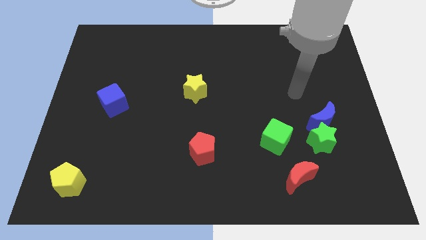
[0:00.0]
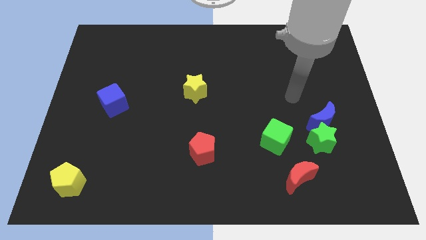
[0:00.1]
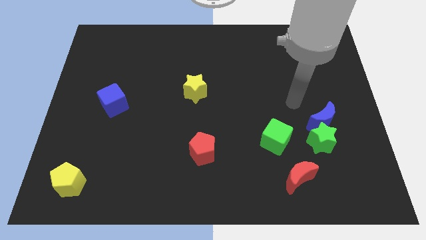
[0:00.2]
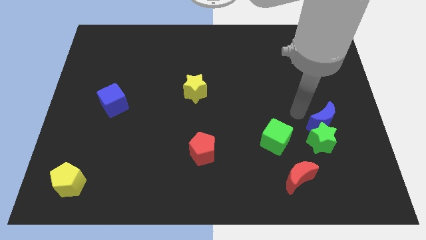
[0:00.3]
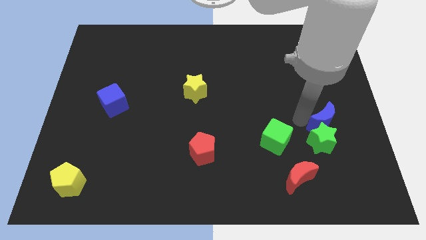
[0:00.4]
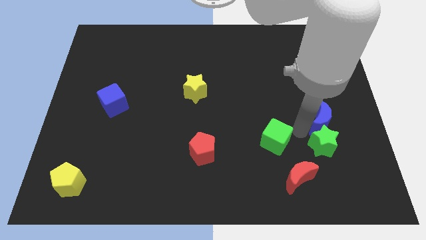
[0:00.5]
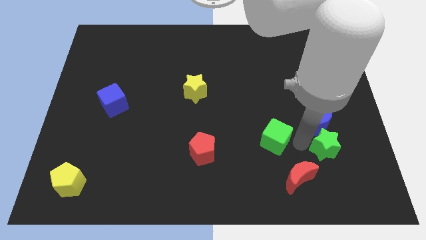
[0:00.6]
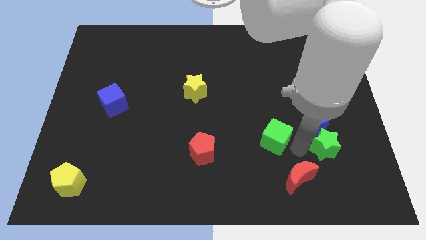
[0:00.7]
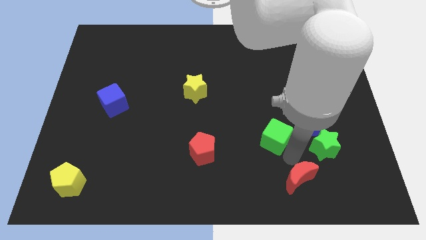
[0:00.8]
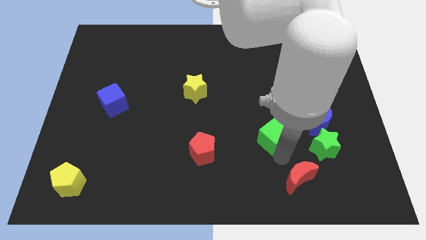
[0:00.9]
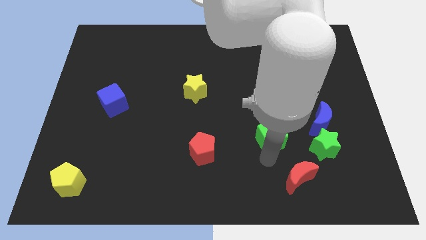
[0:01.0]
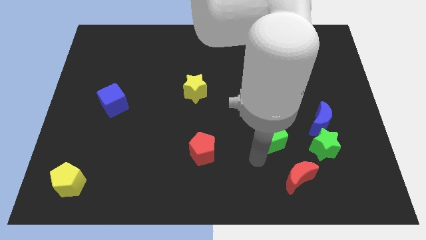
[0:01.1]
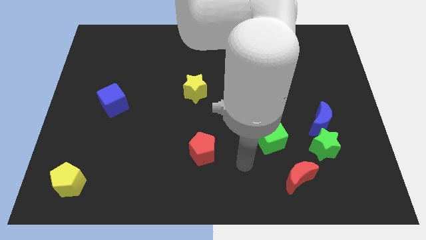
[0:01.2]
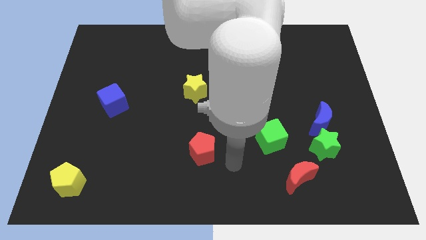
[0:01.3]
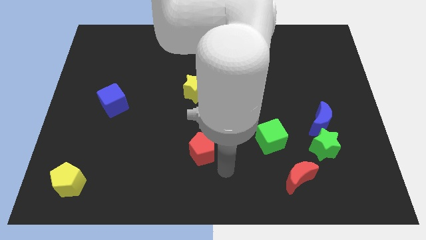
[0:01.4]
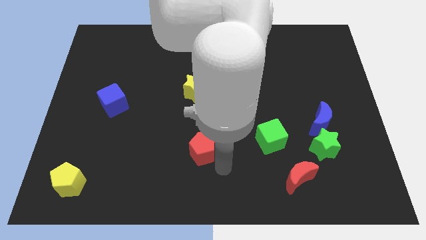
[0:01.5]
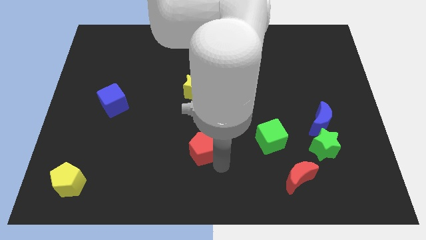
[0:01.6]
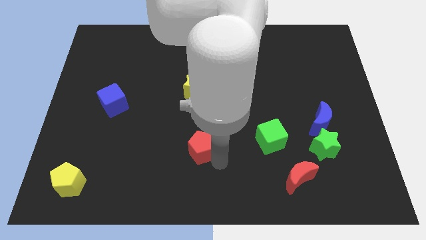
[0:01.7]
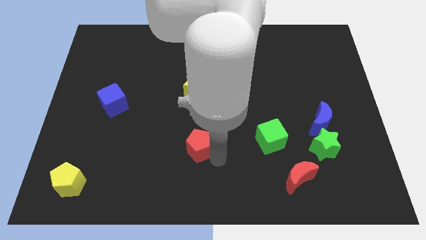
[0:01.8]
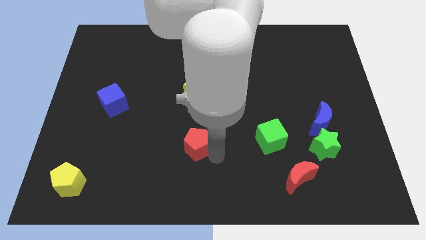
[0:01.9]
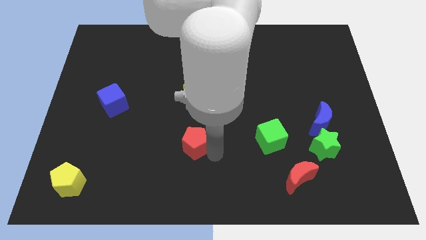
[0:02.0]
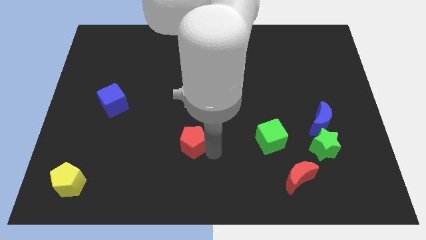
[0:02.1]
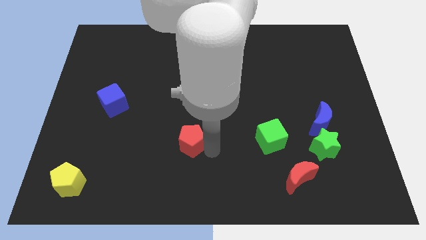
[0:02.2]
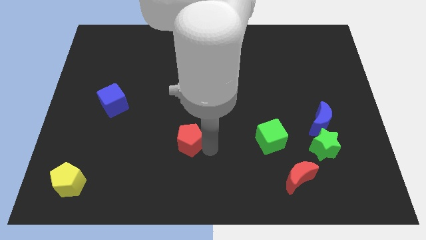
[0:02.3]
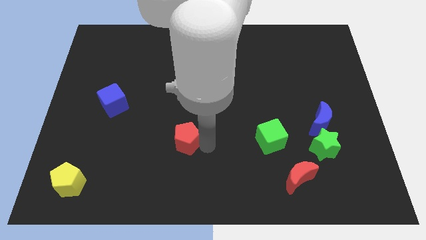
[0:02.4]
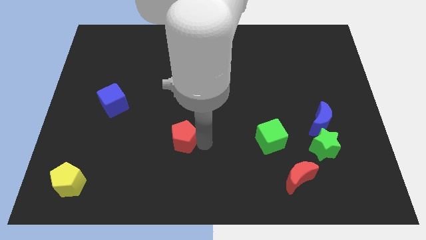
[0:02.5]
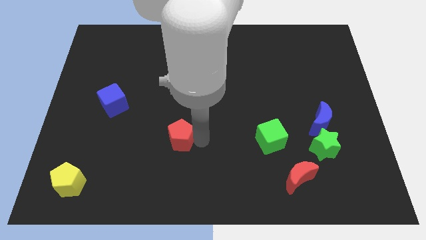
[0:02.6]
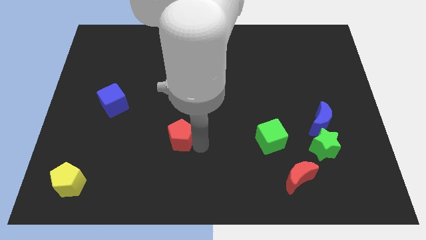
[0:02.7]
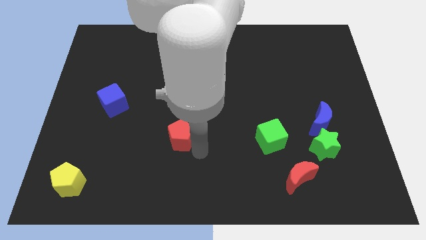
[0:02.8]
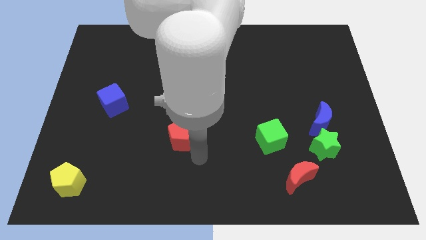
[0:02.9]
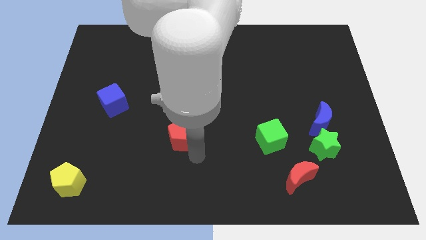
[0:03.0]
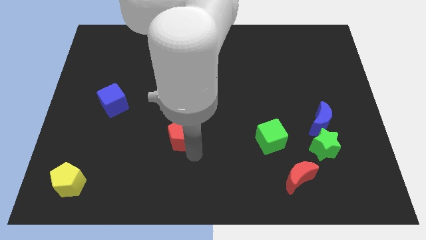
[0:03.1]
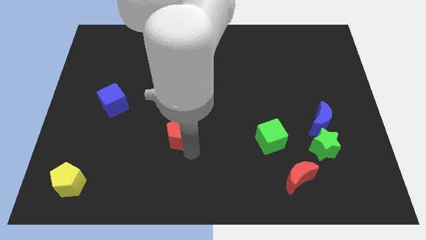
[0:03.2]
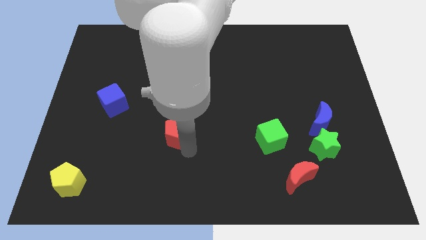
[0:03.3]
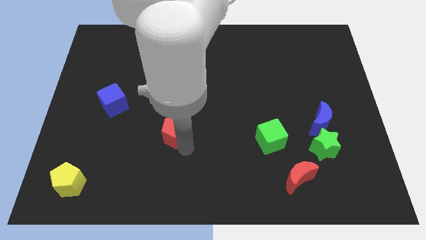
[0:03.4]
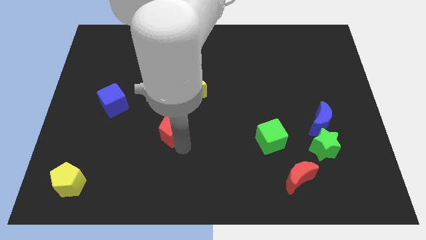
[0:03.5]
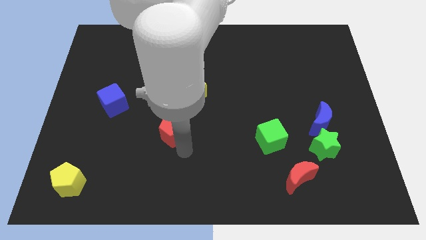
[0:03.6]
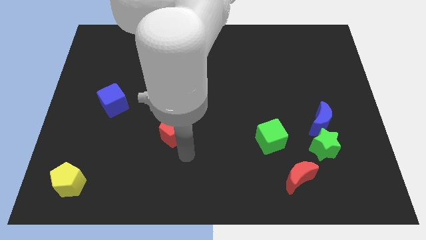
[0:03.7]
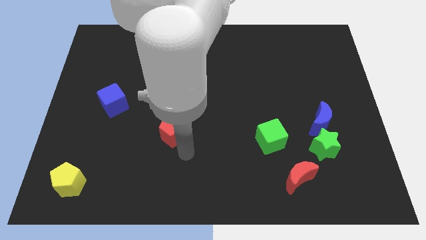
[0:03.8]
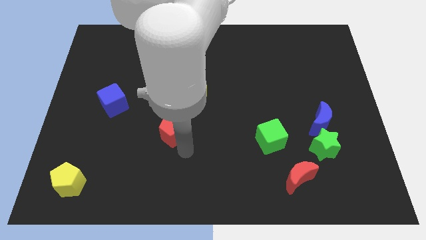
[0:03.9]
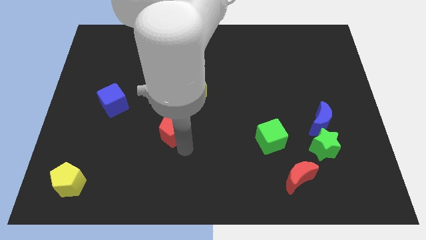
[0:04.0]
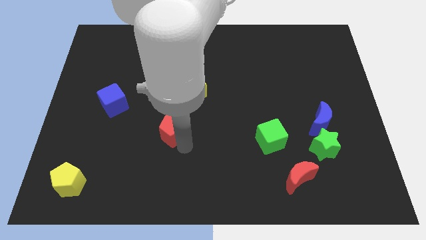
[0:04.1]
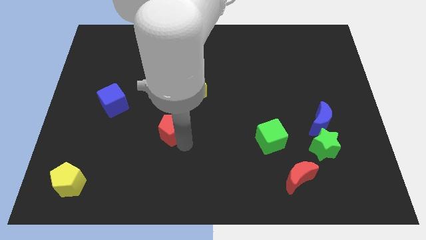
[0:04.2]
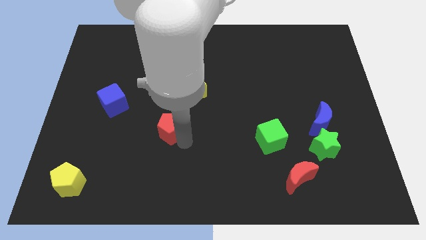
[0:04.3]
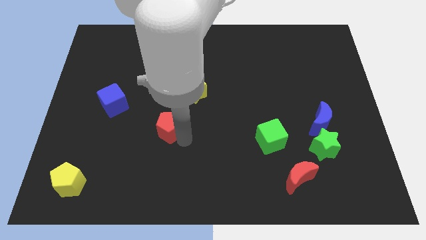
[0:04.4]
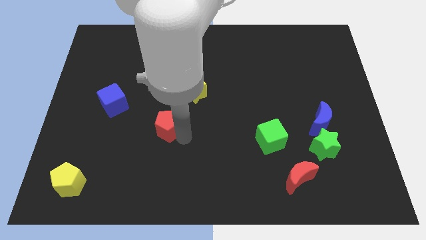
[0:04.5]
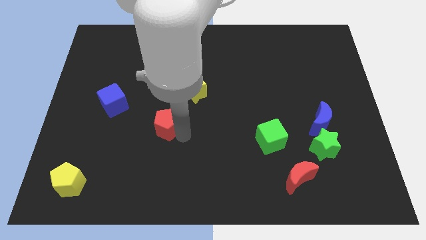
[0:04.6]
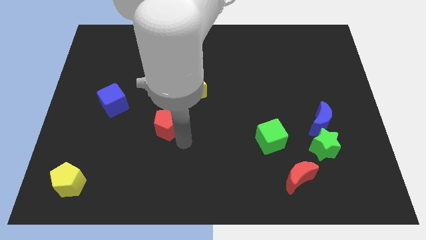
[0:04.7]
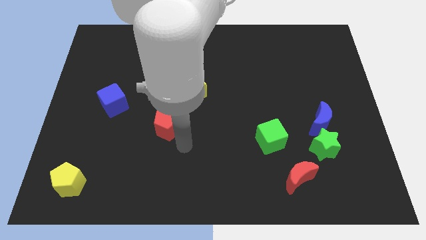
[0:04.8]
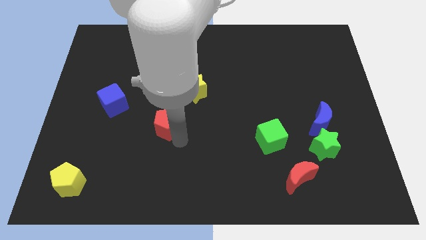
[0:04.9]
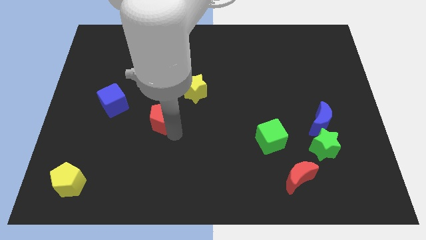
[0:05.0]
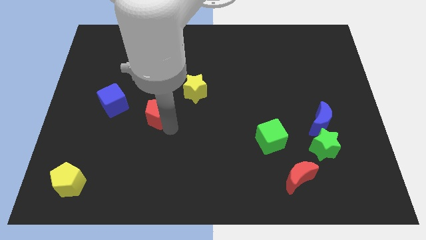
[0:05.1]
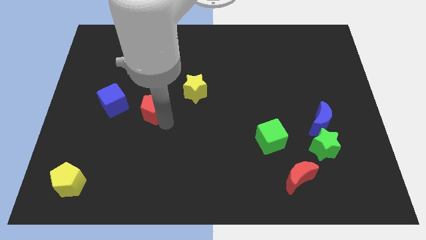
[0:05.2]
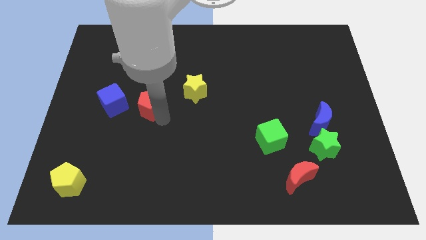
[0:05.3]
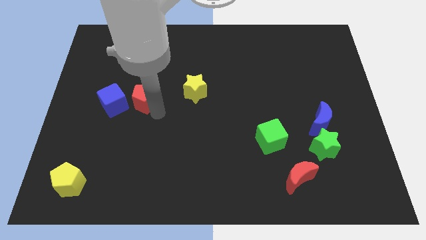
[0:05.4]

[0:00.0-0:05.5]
push the red pentagon up and to the left diagonally

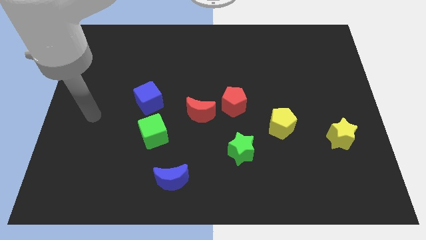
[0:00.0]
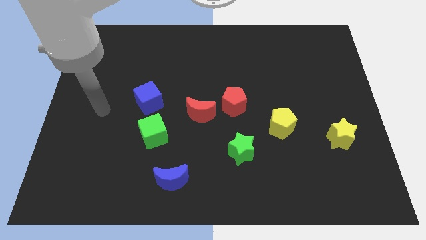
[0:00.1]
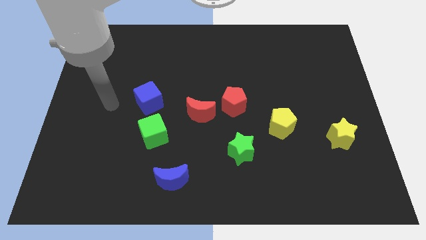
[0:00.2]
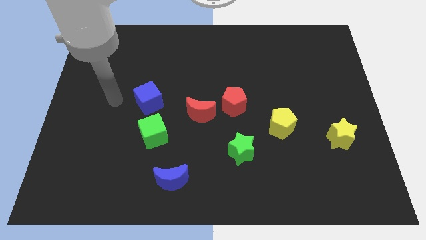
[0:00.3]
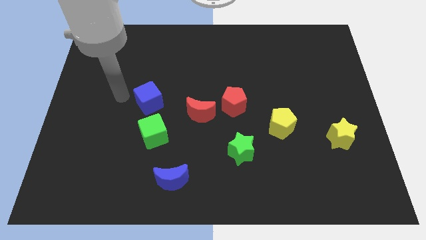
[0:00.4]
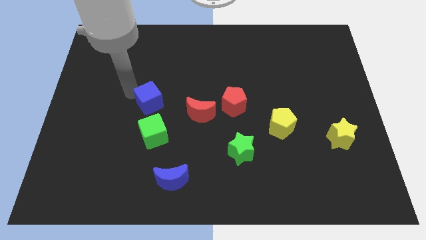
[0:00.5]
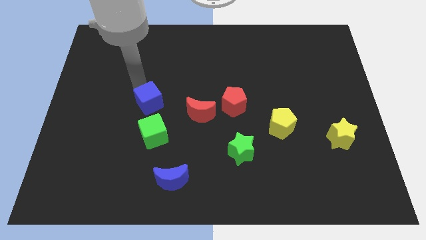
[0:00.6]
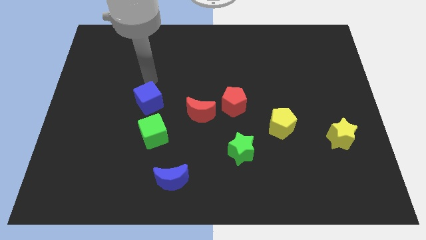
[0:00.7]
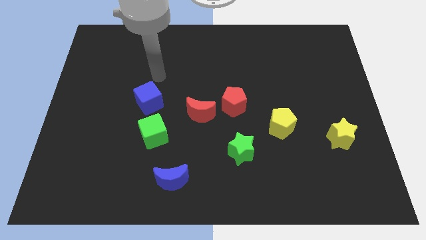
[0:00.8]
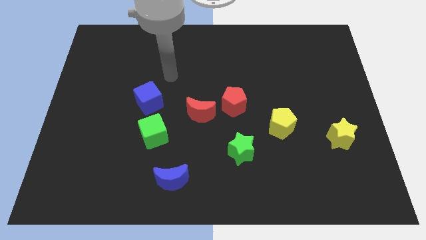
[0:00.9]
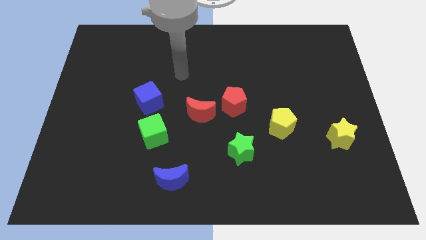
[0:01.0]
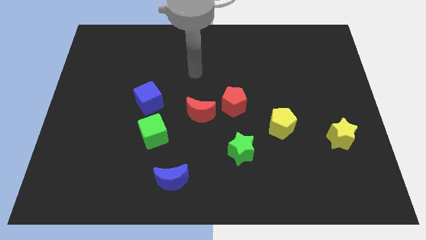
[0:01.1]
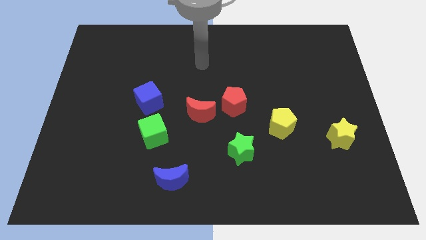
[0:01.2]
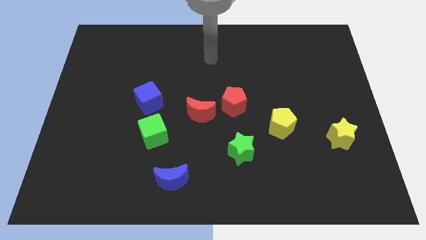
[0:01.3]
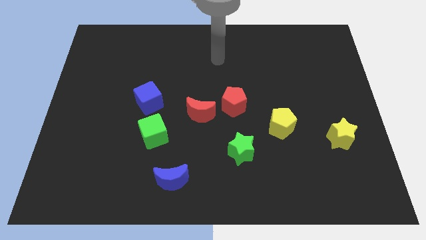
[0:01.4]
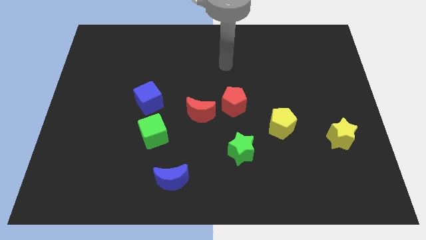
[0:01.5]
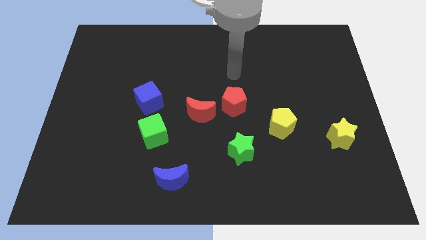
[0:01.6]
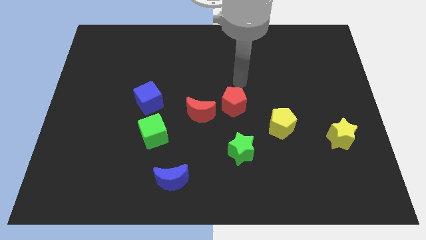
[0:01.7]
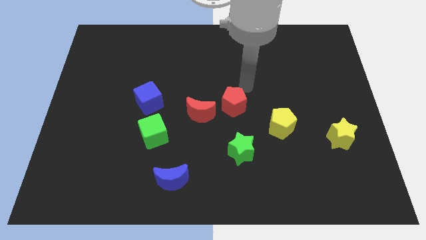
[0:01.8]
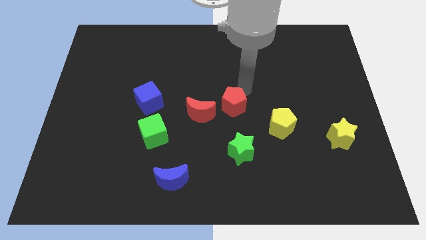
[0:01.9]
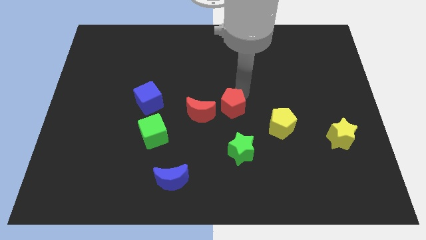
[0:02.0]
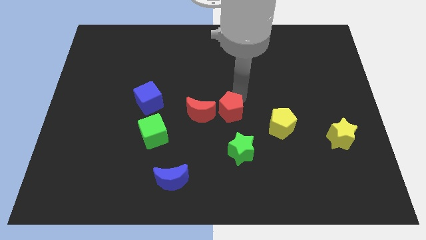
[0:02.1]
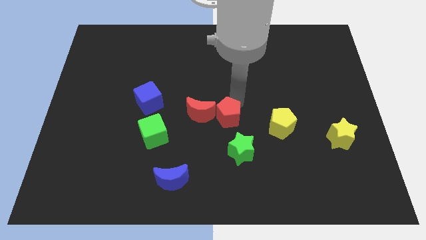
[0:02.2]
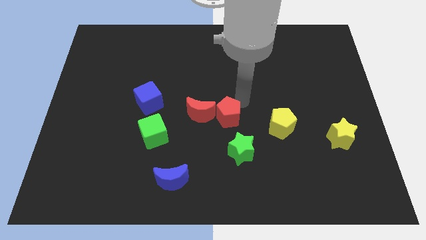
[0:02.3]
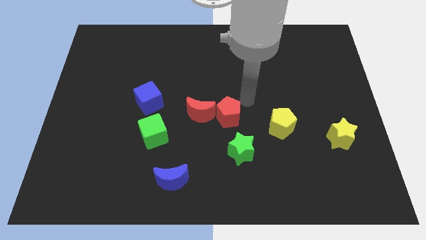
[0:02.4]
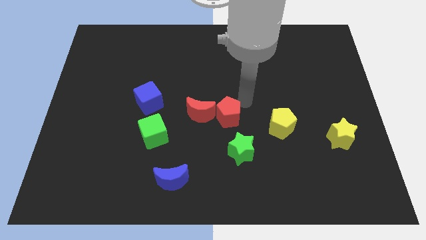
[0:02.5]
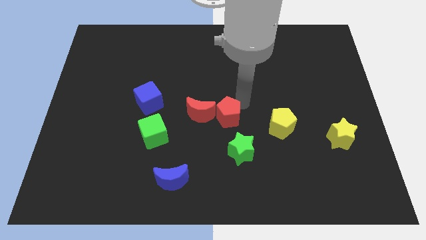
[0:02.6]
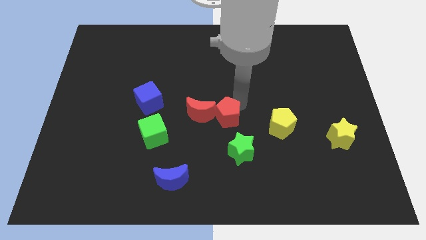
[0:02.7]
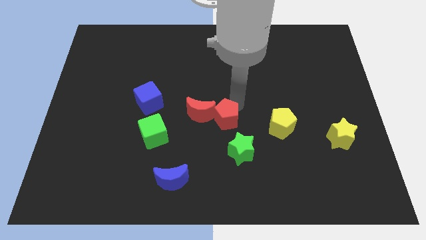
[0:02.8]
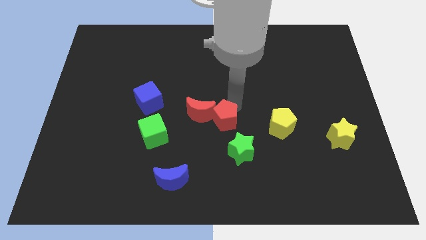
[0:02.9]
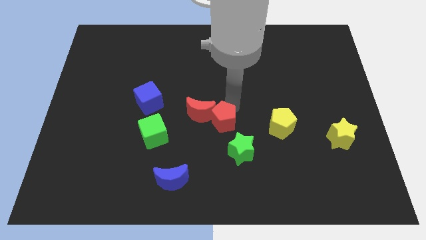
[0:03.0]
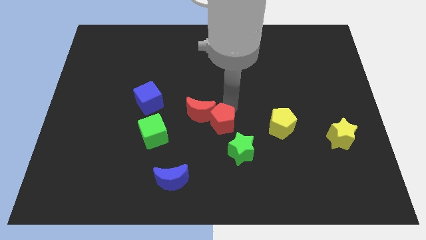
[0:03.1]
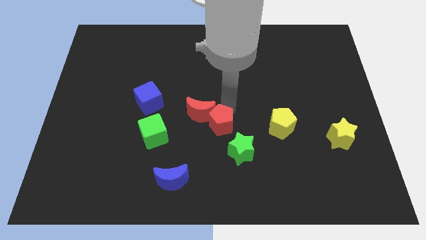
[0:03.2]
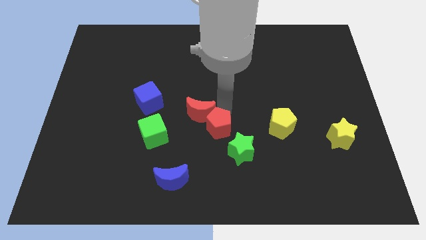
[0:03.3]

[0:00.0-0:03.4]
slide the red pentagon diagonally down and left somewhat
